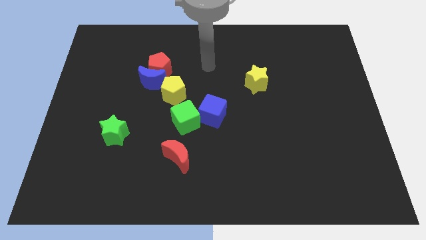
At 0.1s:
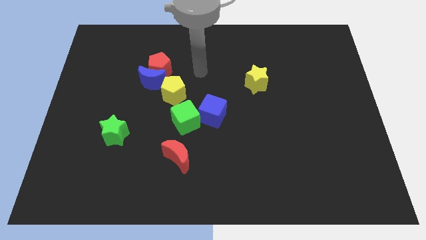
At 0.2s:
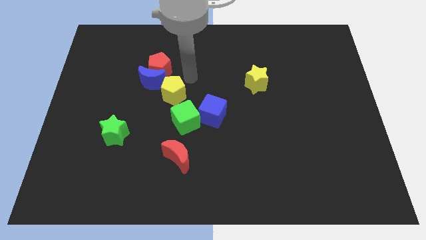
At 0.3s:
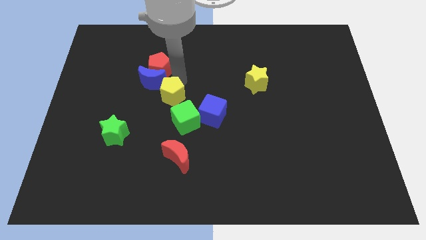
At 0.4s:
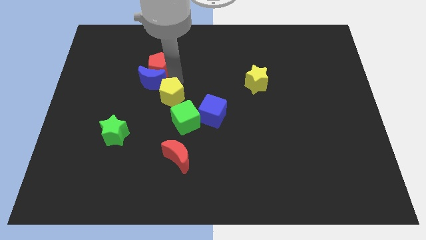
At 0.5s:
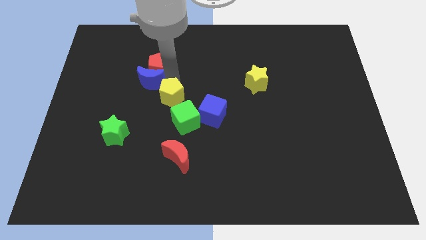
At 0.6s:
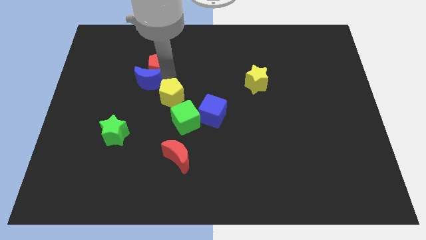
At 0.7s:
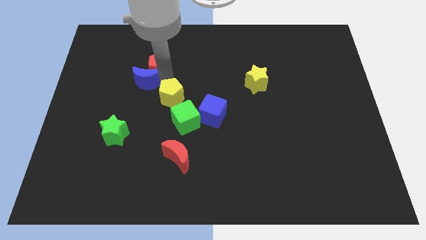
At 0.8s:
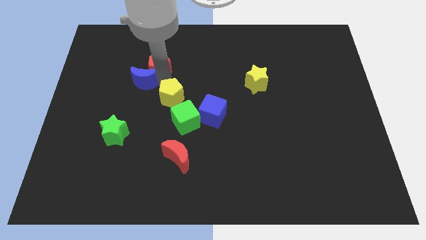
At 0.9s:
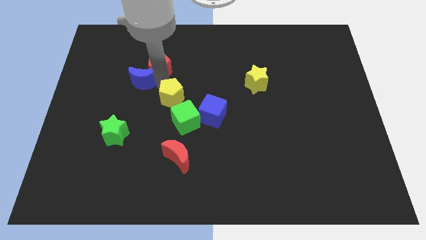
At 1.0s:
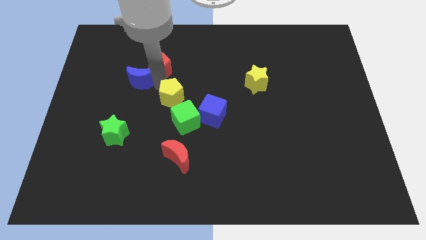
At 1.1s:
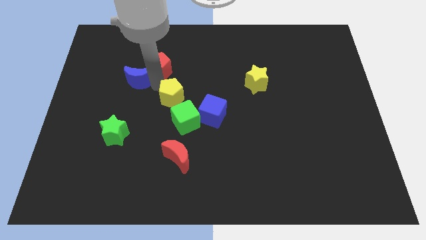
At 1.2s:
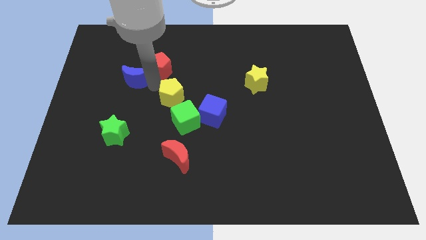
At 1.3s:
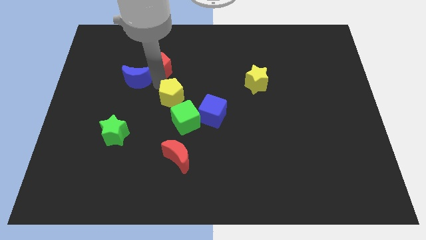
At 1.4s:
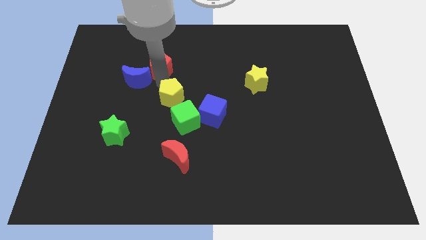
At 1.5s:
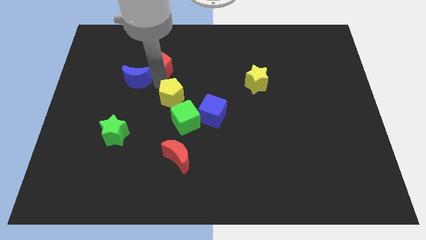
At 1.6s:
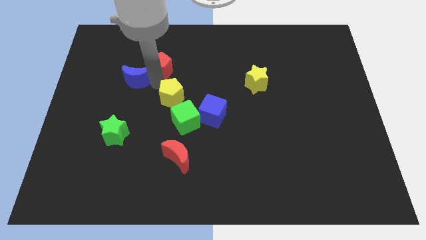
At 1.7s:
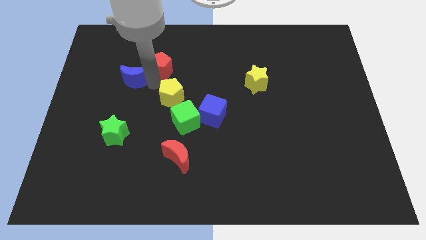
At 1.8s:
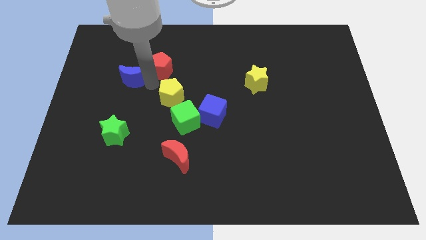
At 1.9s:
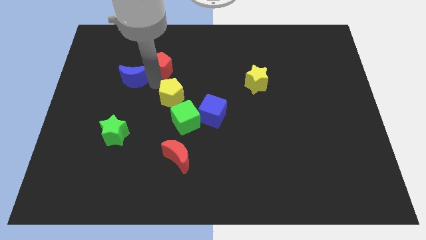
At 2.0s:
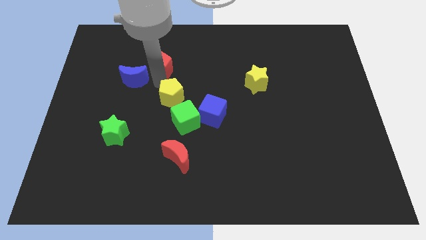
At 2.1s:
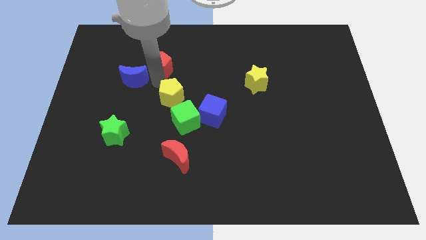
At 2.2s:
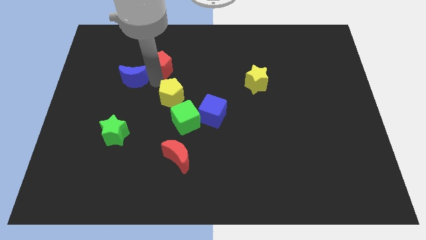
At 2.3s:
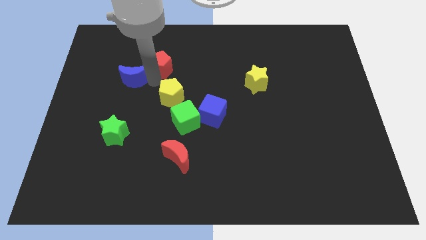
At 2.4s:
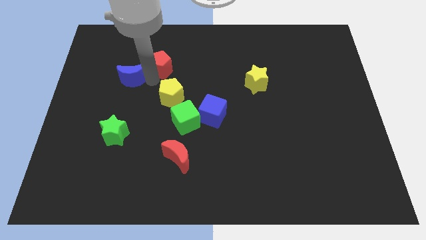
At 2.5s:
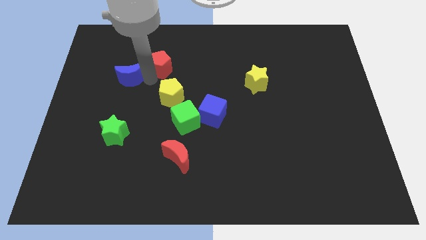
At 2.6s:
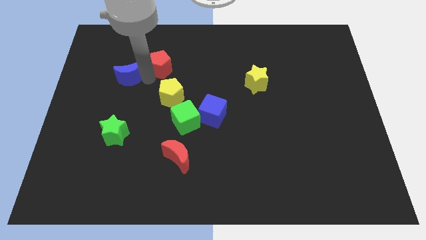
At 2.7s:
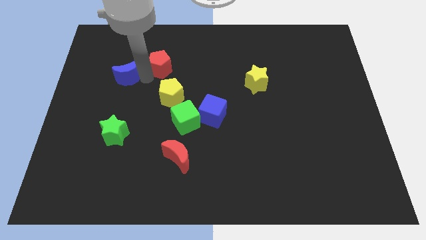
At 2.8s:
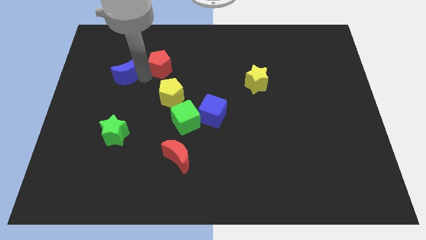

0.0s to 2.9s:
pull the blue moon apart from the red pentagon and yellow pentagon

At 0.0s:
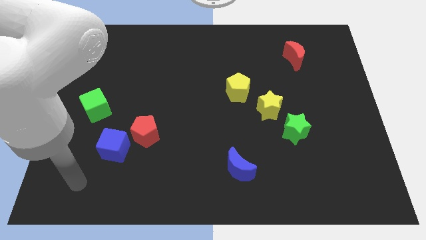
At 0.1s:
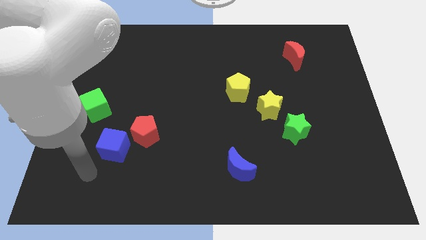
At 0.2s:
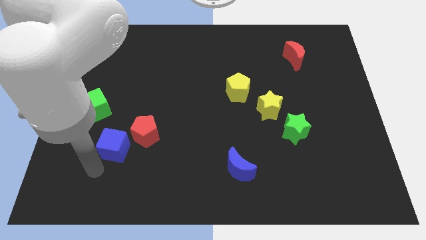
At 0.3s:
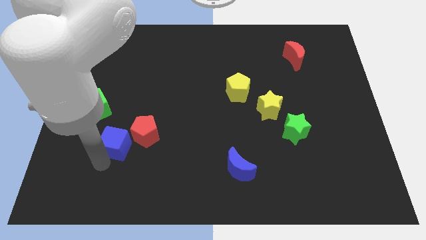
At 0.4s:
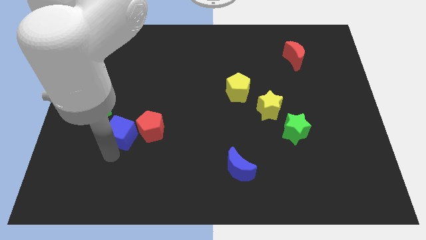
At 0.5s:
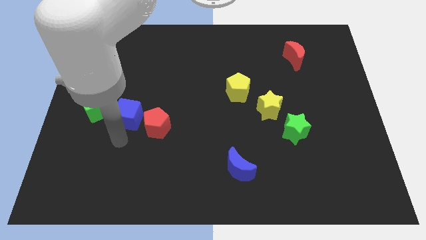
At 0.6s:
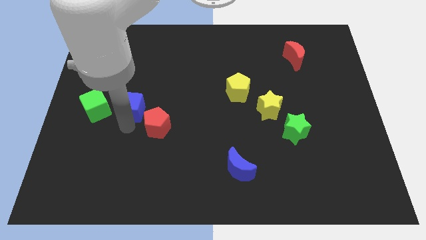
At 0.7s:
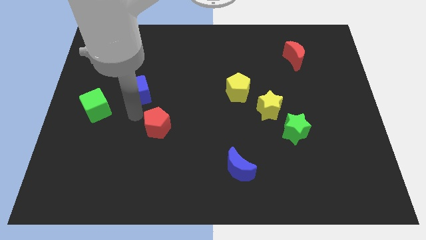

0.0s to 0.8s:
pull the red pentagon apart from the blue cube

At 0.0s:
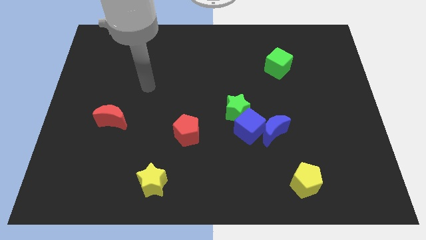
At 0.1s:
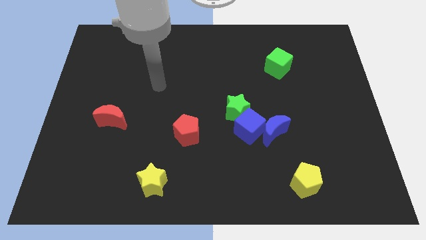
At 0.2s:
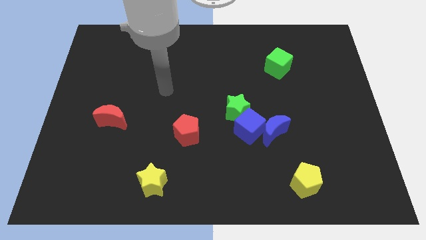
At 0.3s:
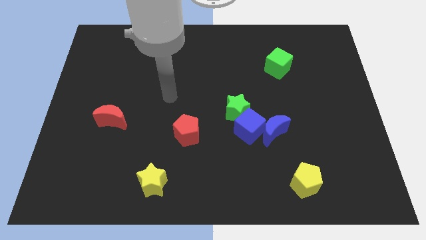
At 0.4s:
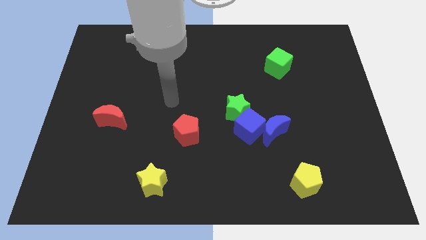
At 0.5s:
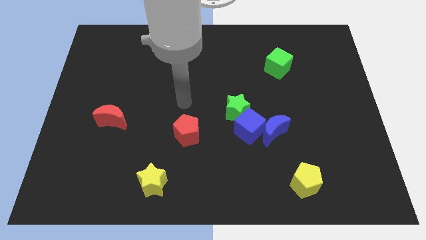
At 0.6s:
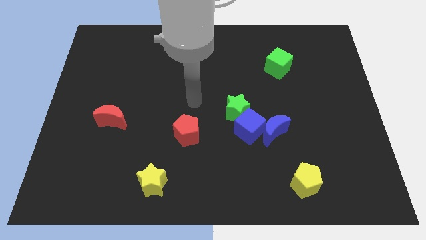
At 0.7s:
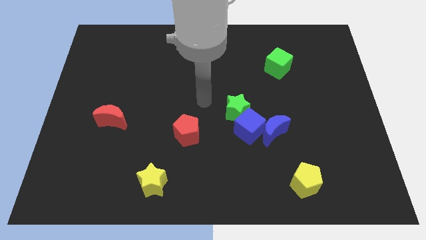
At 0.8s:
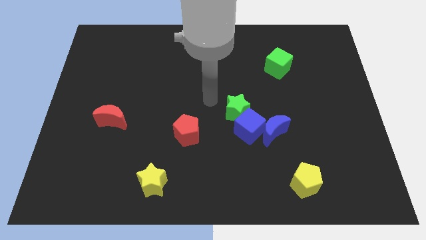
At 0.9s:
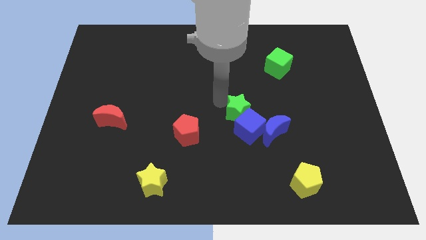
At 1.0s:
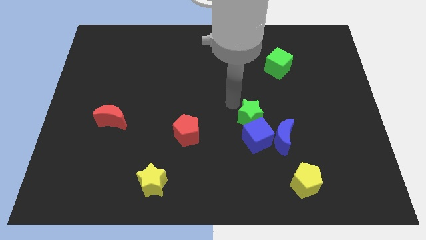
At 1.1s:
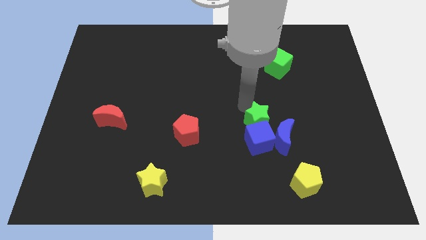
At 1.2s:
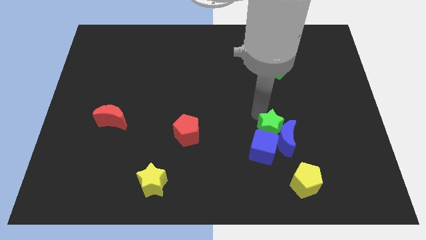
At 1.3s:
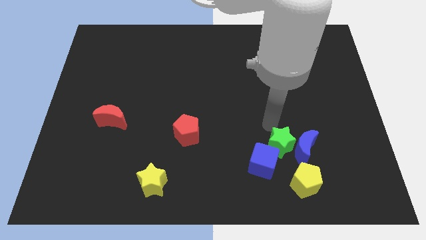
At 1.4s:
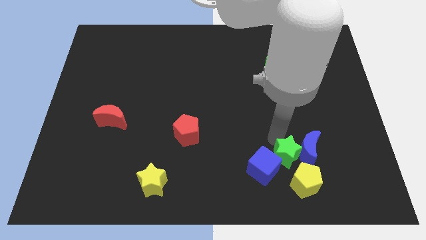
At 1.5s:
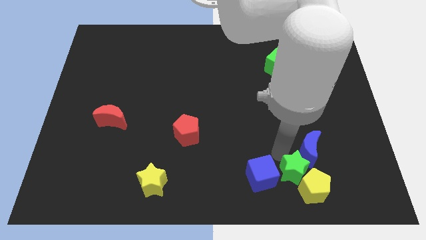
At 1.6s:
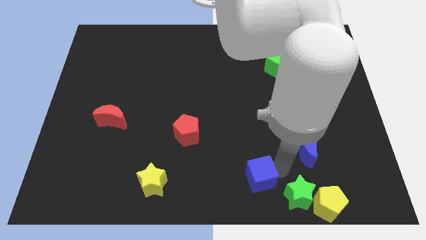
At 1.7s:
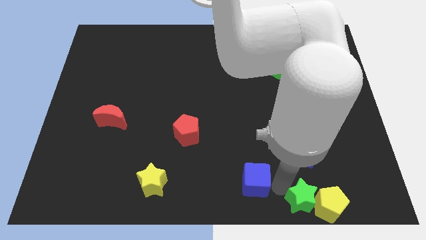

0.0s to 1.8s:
separate the blue cube from the blue moon and green star

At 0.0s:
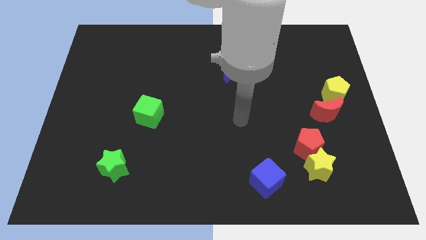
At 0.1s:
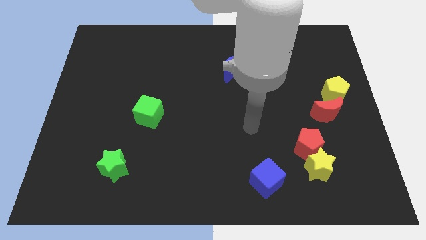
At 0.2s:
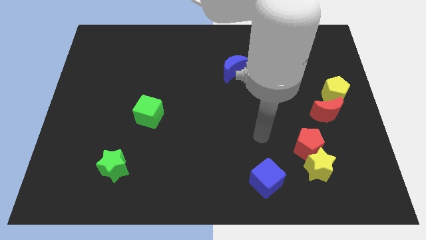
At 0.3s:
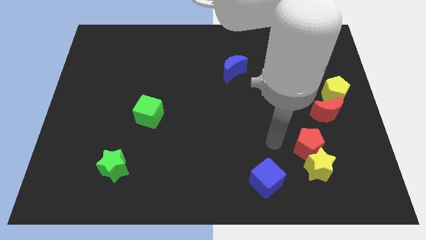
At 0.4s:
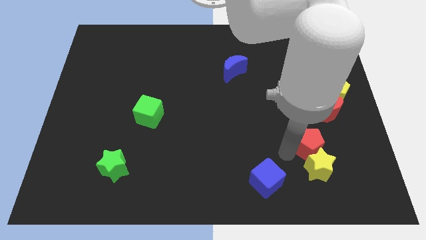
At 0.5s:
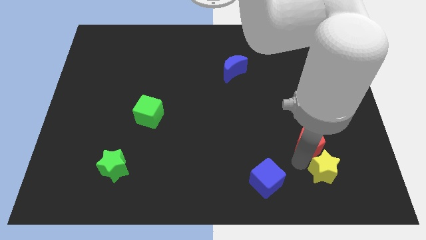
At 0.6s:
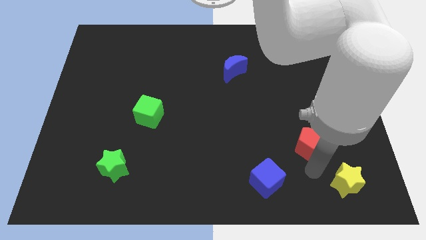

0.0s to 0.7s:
move the red pentagon away from the yellow star

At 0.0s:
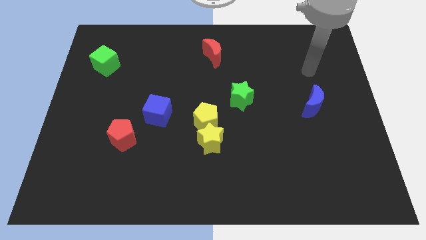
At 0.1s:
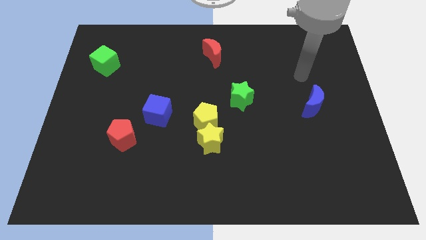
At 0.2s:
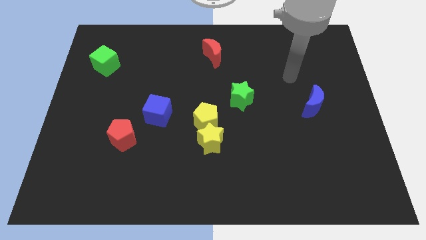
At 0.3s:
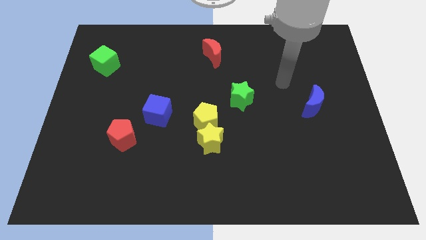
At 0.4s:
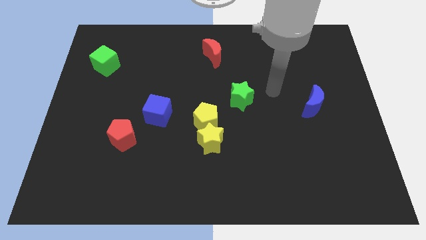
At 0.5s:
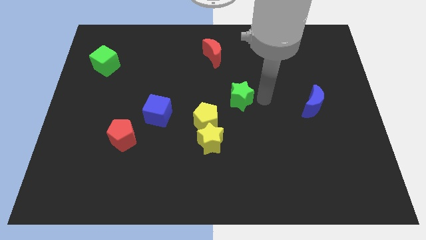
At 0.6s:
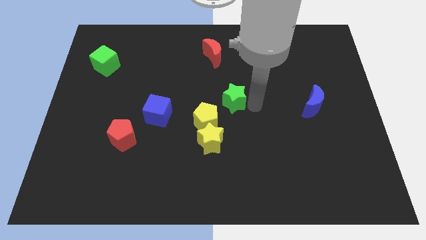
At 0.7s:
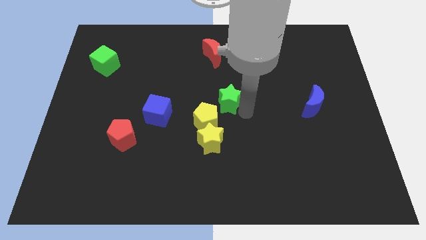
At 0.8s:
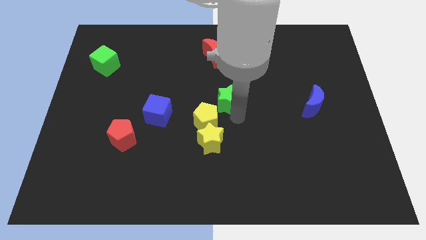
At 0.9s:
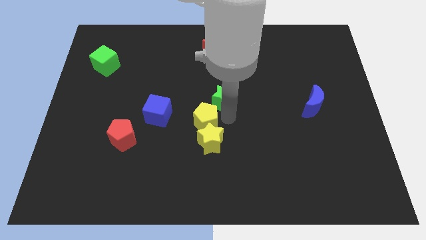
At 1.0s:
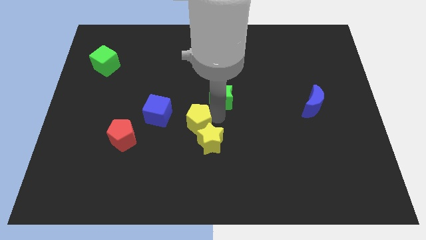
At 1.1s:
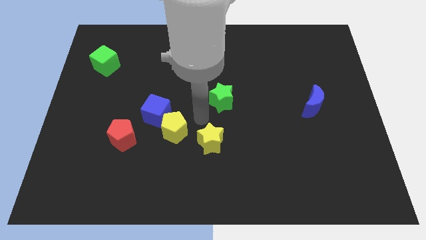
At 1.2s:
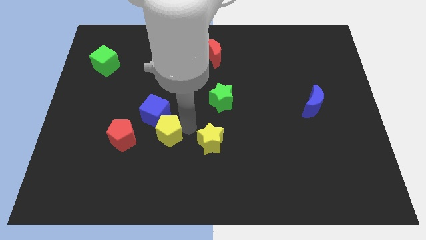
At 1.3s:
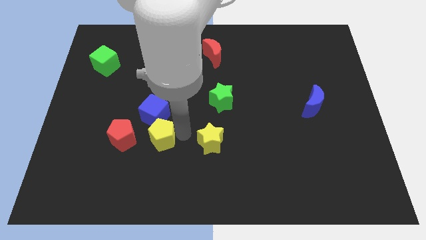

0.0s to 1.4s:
move the yellow star away from the yellow pentagon

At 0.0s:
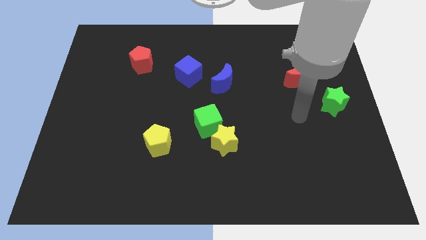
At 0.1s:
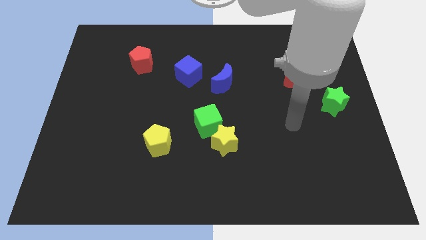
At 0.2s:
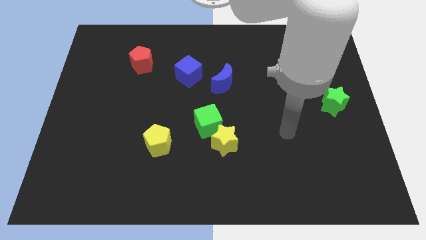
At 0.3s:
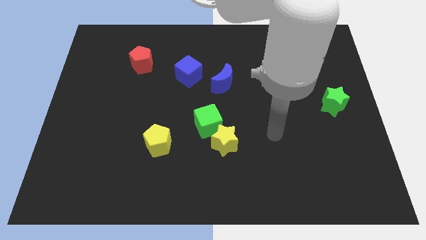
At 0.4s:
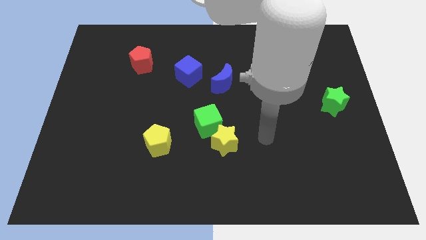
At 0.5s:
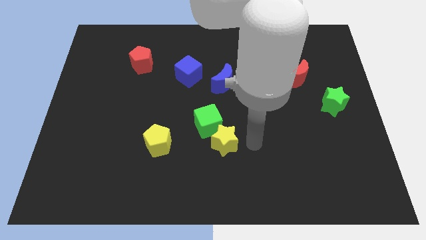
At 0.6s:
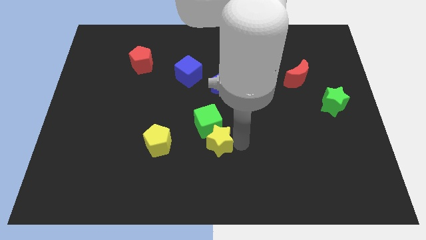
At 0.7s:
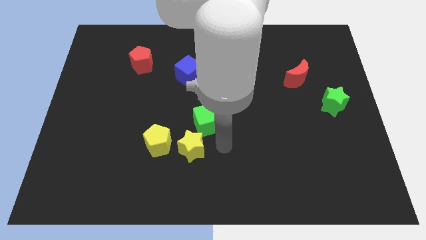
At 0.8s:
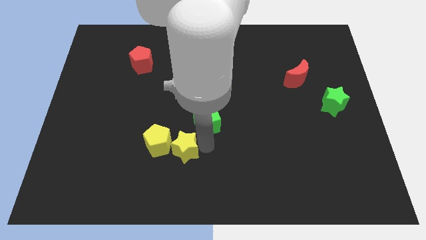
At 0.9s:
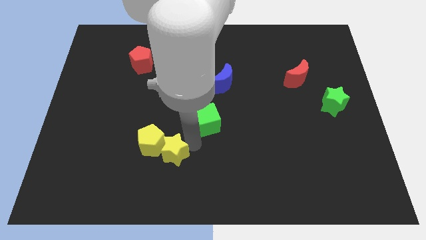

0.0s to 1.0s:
separate the green cube from the yellow star

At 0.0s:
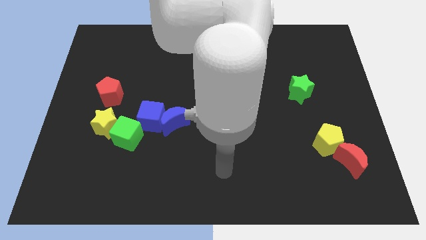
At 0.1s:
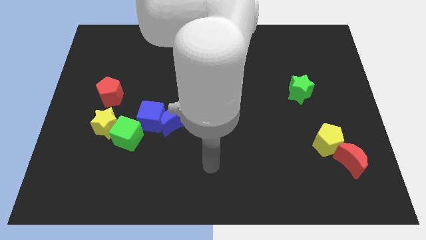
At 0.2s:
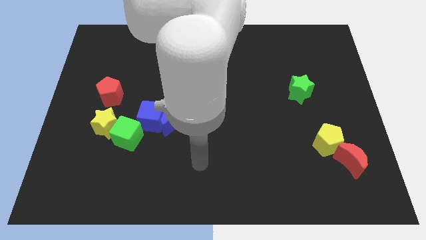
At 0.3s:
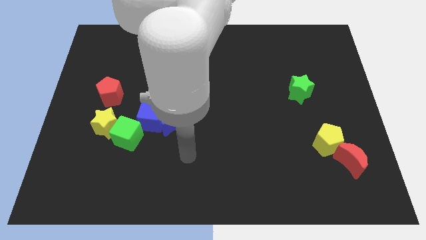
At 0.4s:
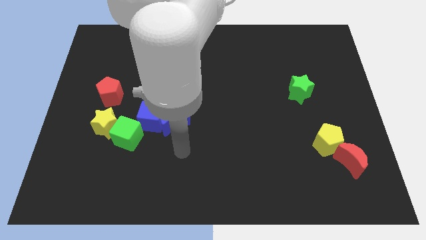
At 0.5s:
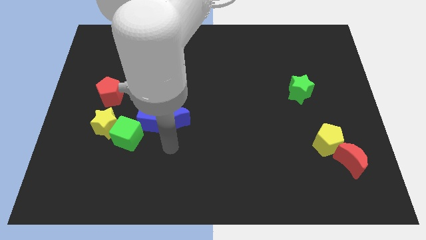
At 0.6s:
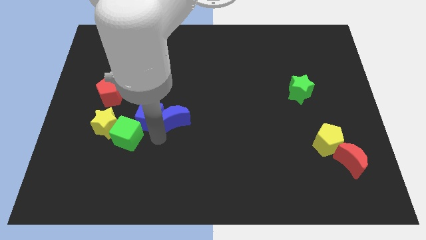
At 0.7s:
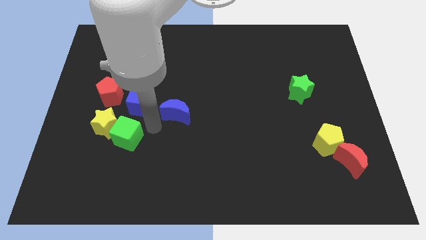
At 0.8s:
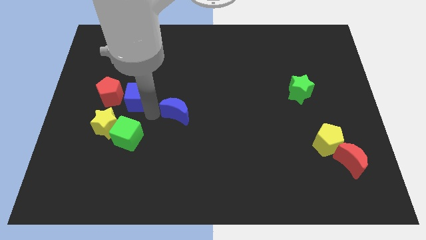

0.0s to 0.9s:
move the blue moon away from the blue cube
